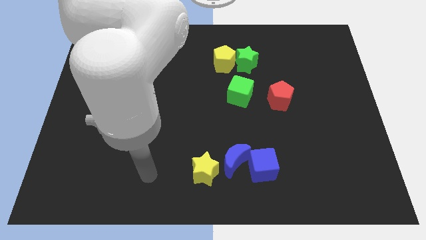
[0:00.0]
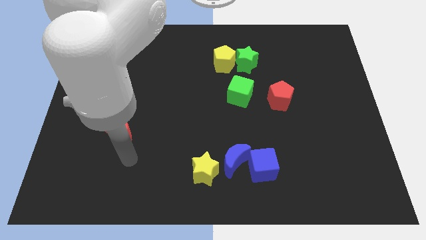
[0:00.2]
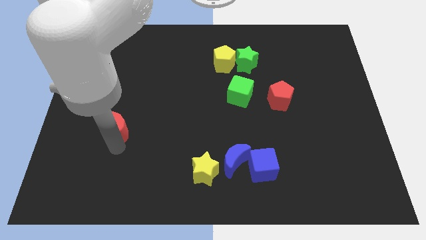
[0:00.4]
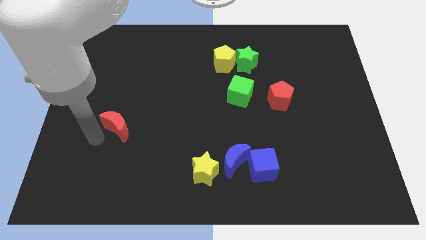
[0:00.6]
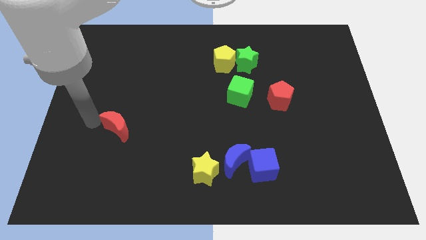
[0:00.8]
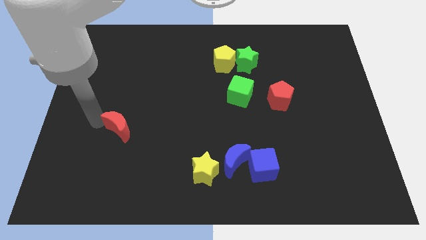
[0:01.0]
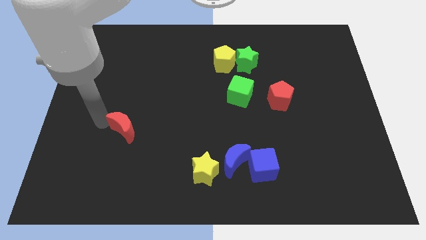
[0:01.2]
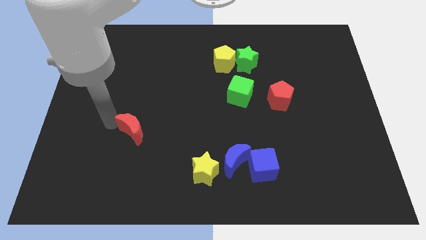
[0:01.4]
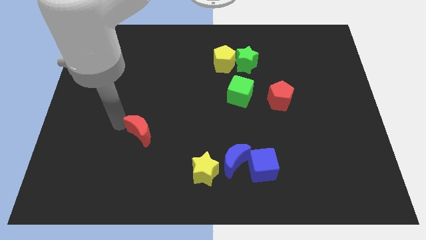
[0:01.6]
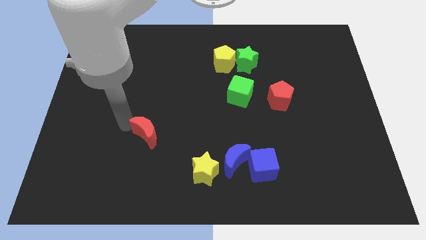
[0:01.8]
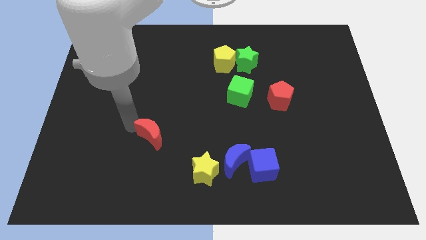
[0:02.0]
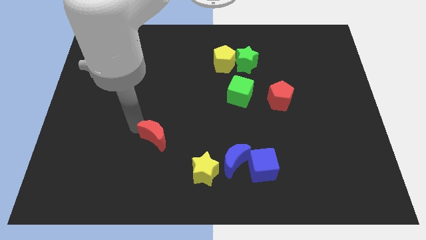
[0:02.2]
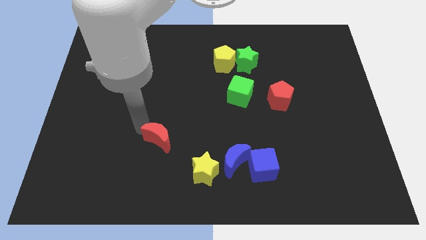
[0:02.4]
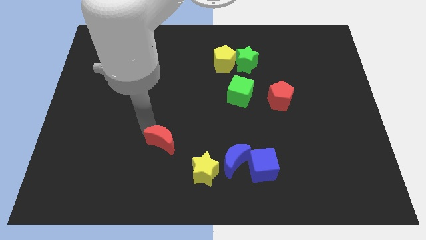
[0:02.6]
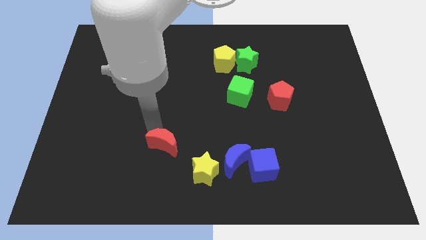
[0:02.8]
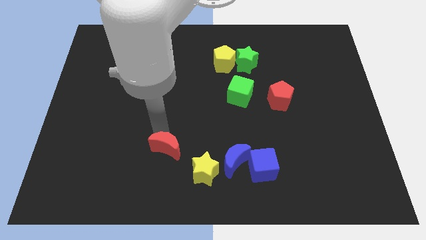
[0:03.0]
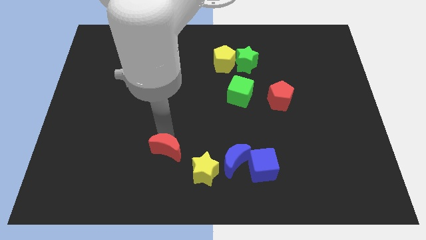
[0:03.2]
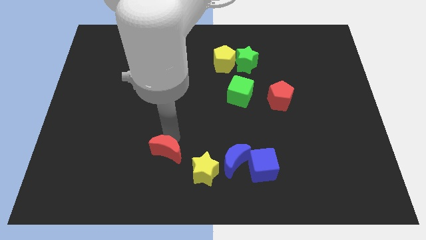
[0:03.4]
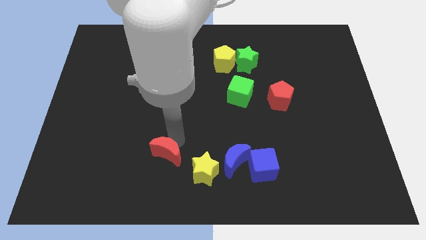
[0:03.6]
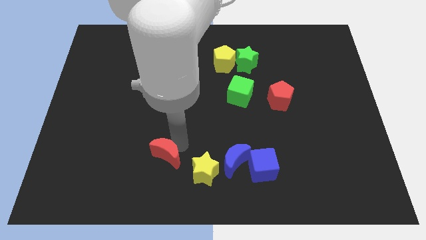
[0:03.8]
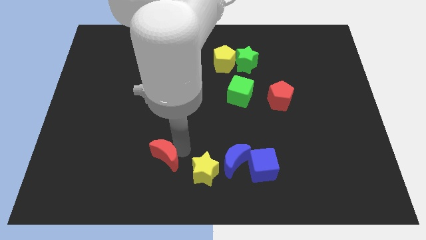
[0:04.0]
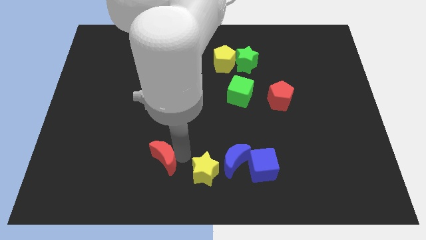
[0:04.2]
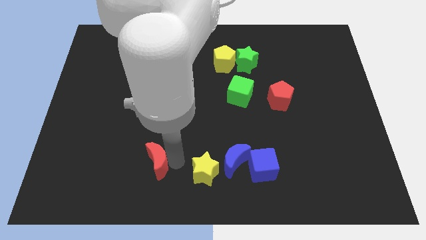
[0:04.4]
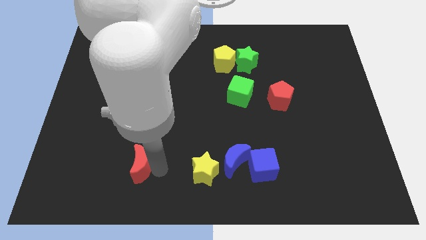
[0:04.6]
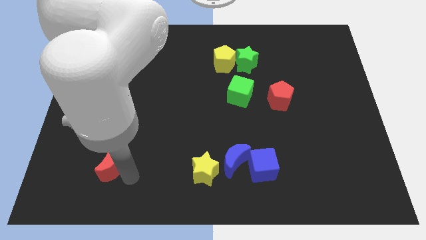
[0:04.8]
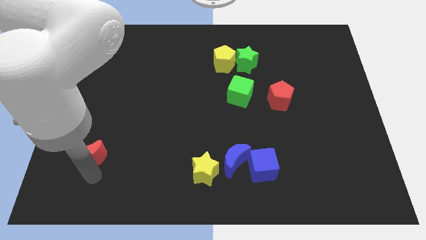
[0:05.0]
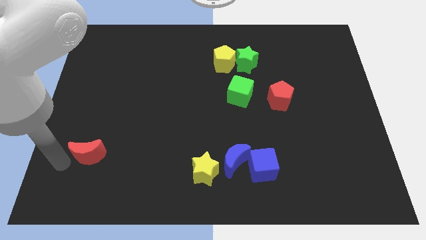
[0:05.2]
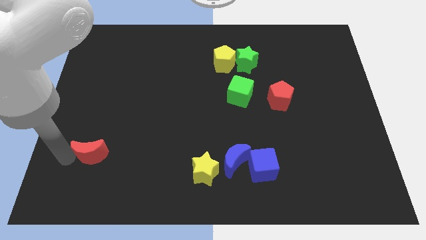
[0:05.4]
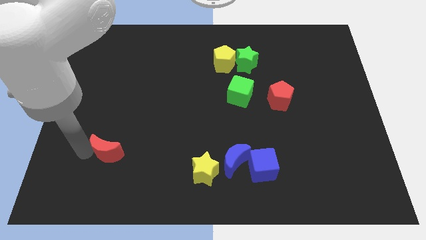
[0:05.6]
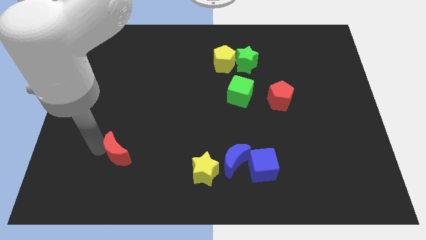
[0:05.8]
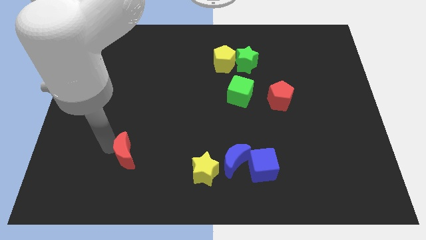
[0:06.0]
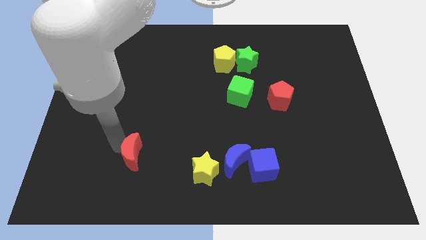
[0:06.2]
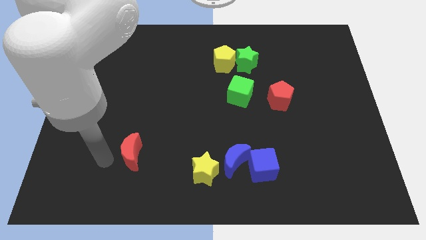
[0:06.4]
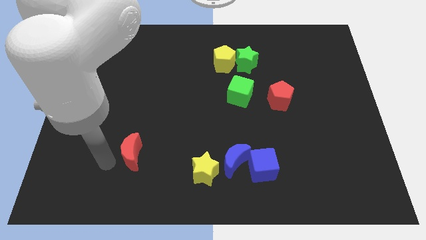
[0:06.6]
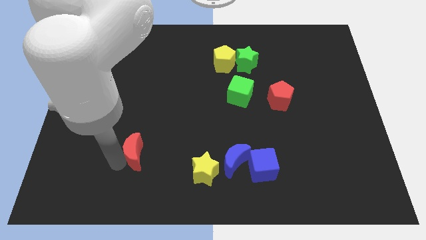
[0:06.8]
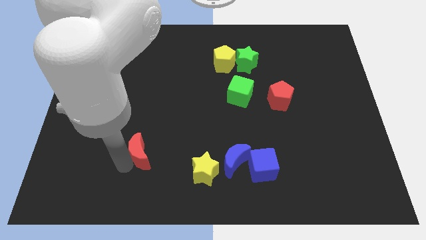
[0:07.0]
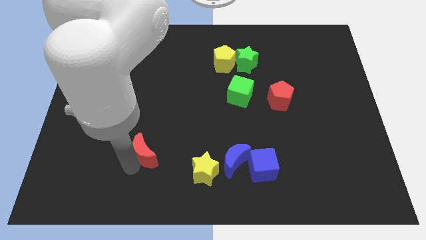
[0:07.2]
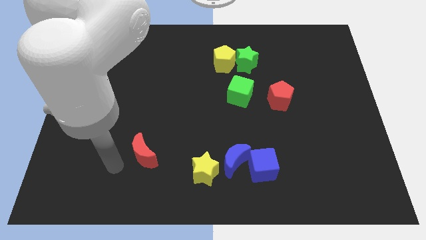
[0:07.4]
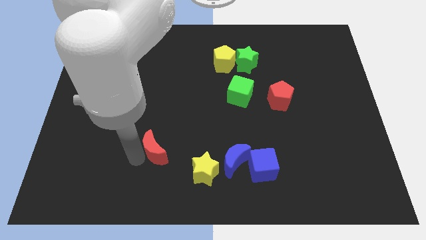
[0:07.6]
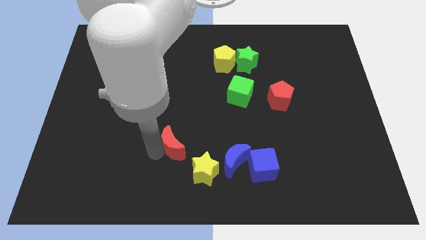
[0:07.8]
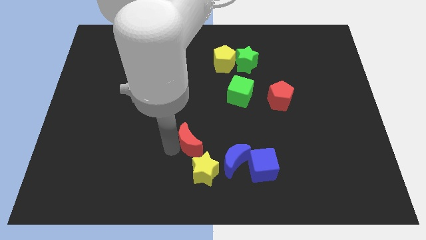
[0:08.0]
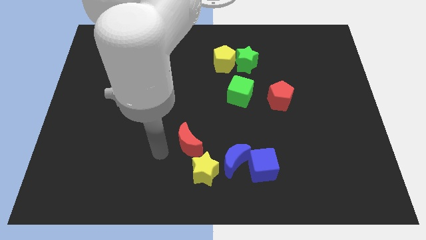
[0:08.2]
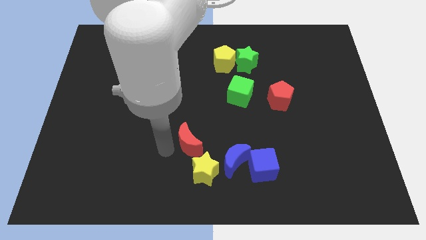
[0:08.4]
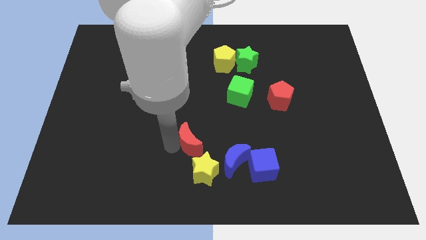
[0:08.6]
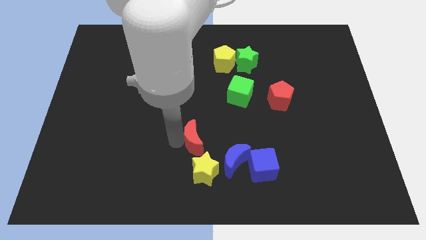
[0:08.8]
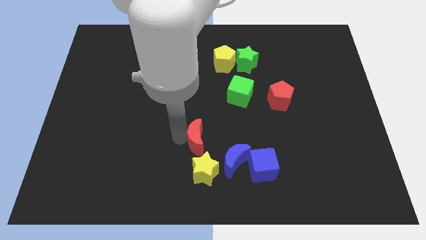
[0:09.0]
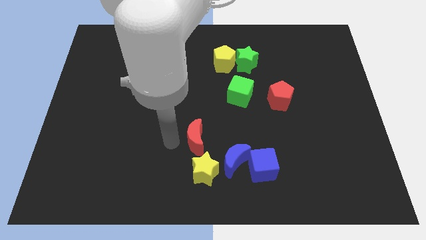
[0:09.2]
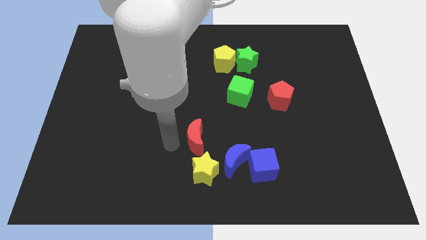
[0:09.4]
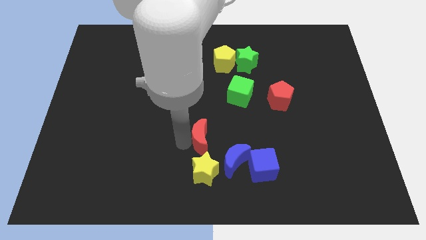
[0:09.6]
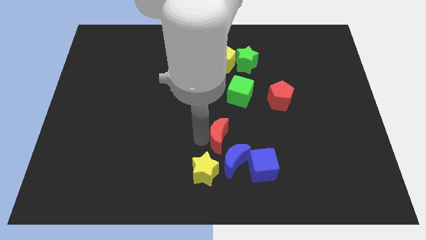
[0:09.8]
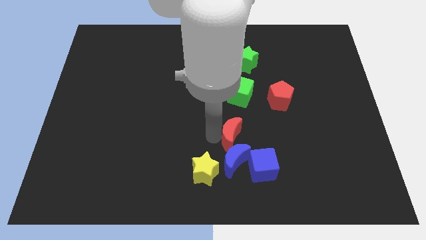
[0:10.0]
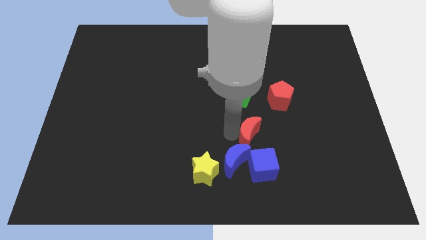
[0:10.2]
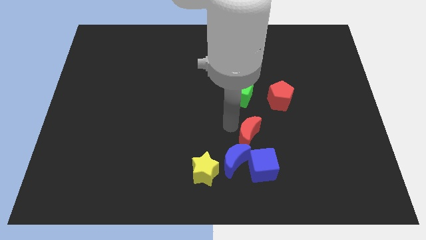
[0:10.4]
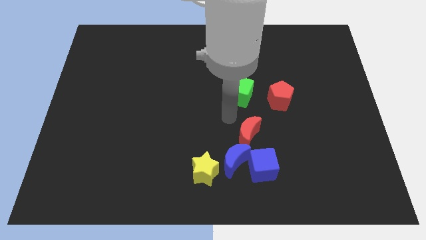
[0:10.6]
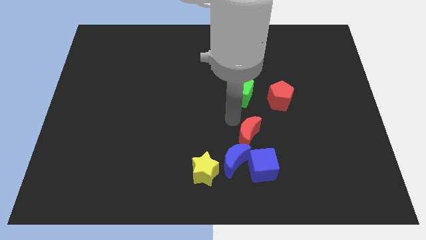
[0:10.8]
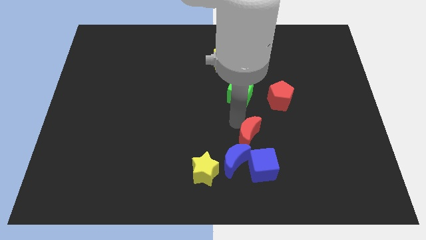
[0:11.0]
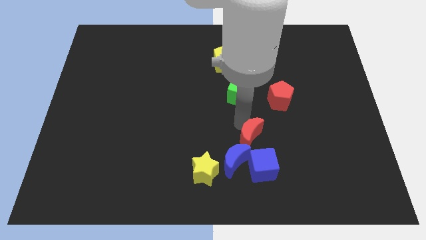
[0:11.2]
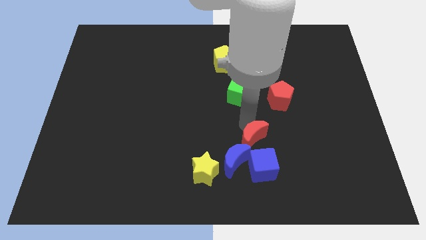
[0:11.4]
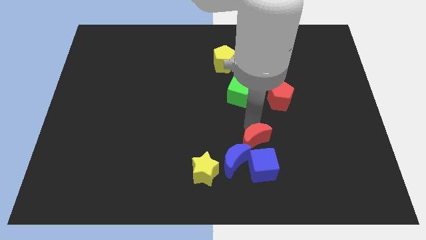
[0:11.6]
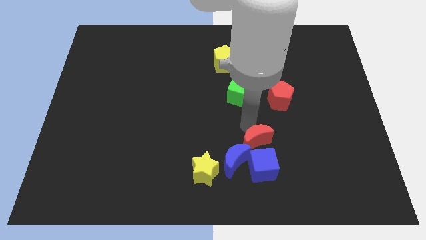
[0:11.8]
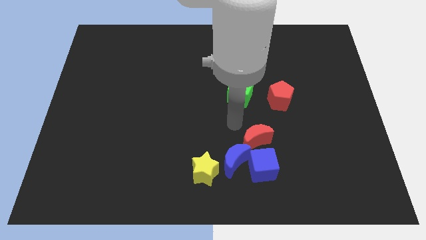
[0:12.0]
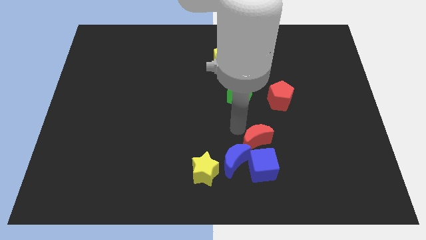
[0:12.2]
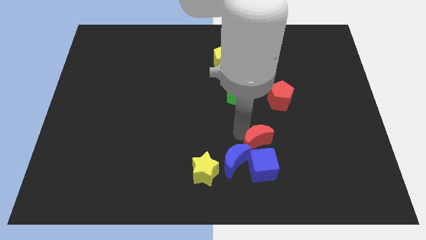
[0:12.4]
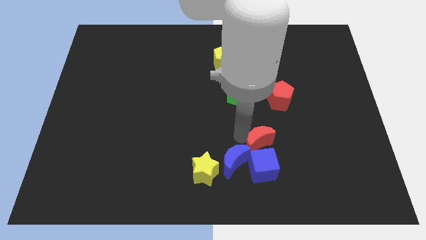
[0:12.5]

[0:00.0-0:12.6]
slide the red moon just right of the blue moon

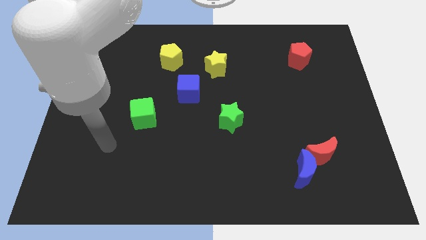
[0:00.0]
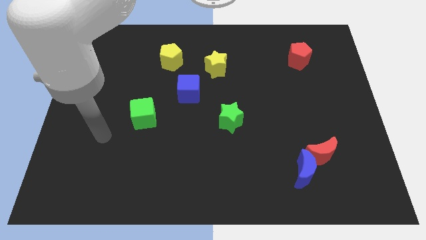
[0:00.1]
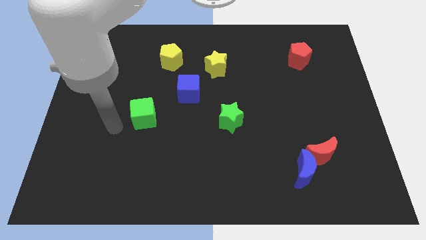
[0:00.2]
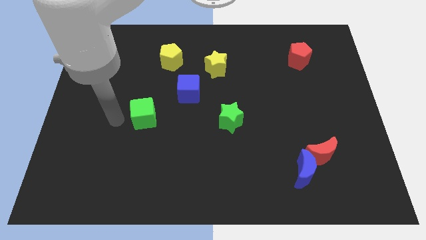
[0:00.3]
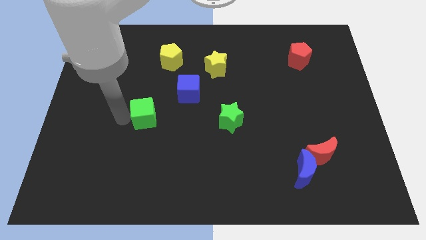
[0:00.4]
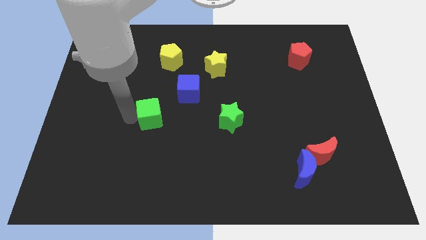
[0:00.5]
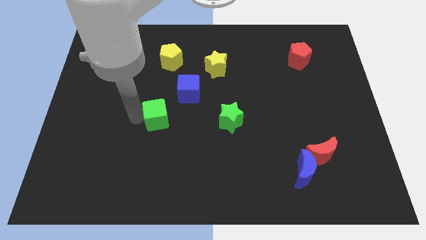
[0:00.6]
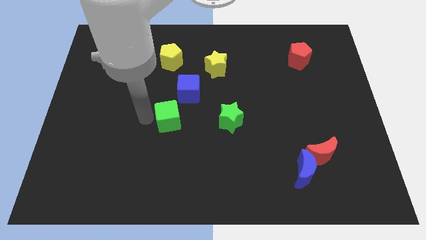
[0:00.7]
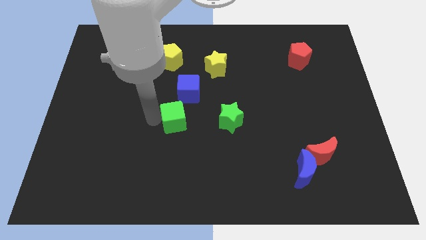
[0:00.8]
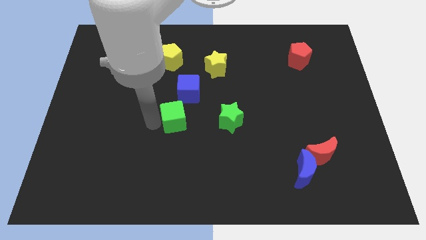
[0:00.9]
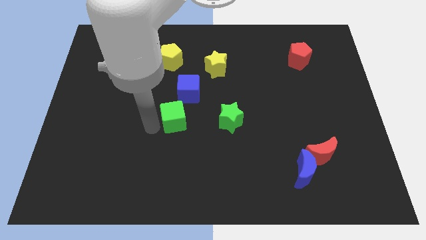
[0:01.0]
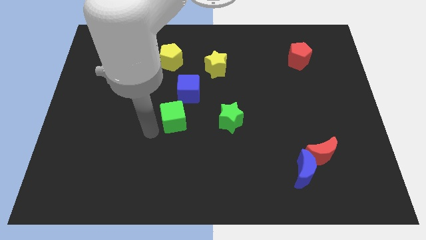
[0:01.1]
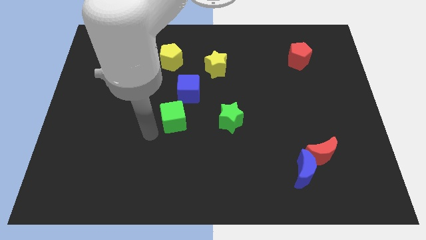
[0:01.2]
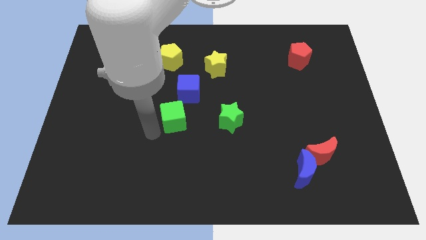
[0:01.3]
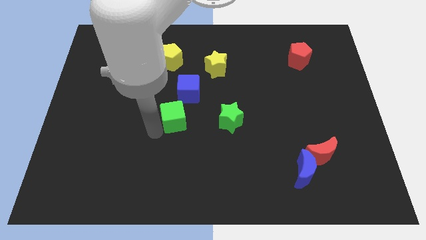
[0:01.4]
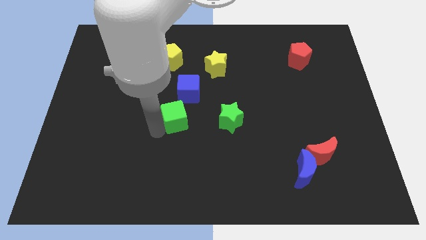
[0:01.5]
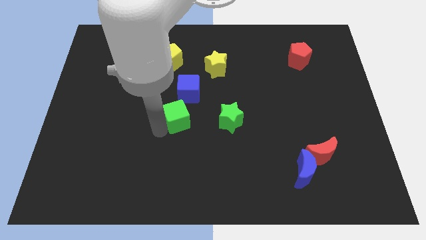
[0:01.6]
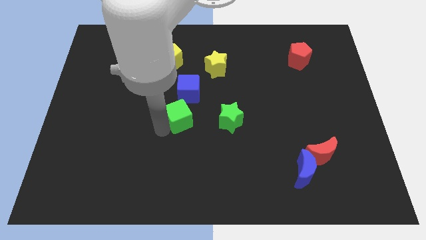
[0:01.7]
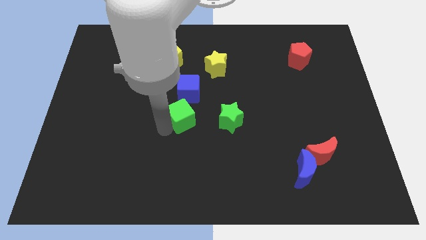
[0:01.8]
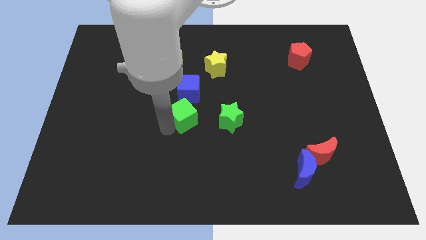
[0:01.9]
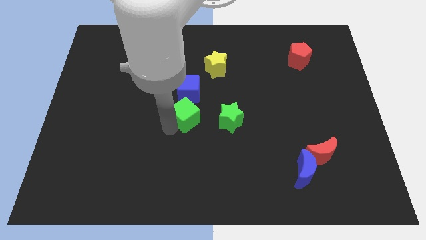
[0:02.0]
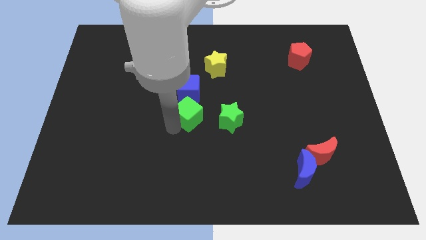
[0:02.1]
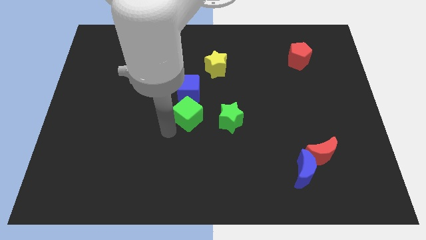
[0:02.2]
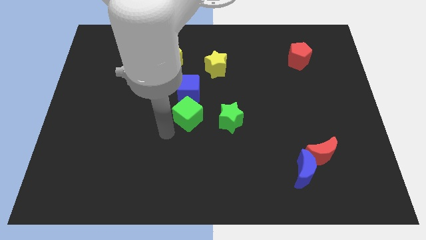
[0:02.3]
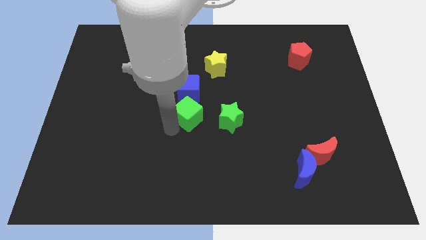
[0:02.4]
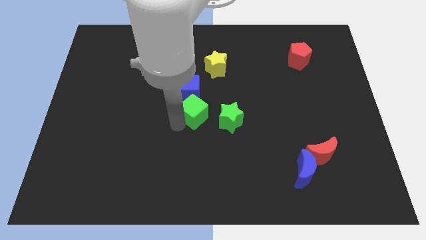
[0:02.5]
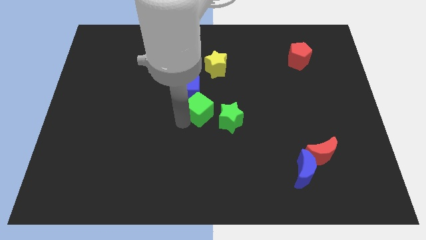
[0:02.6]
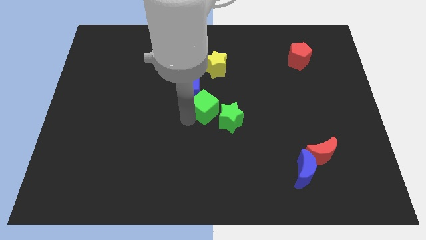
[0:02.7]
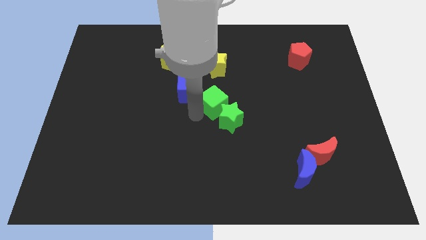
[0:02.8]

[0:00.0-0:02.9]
put the green cube to the right side of the blue cube
